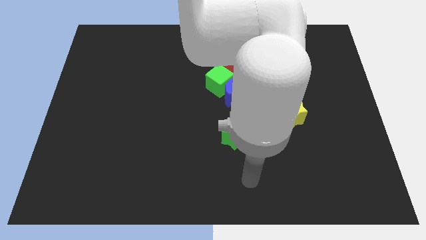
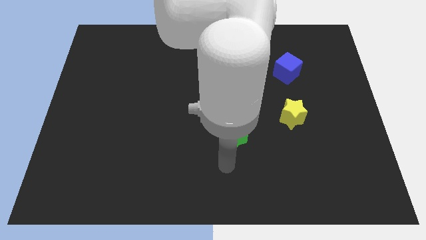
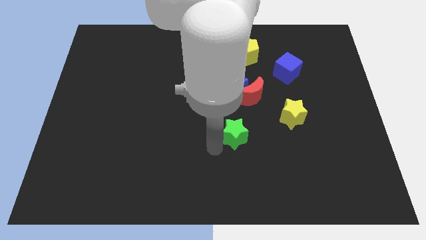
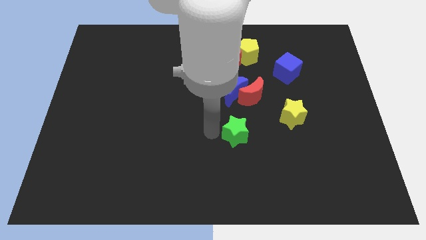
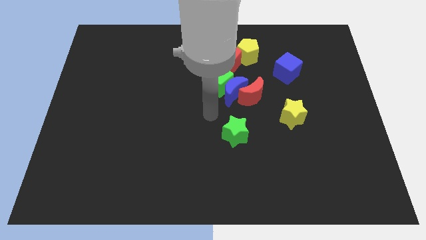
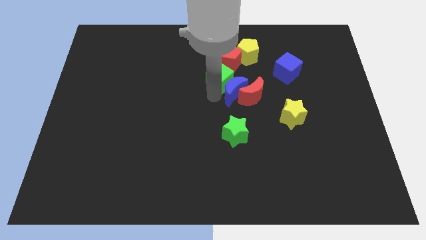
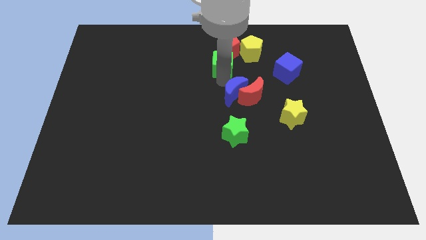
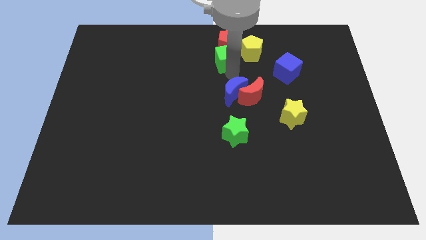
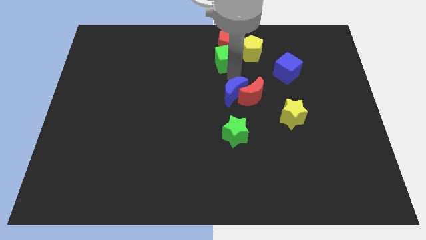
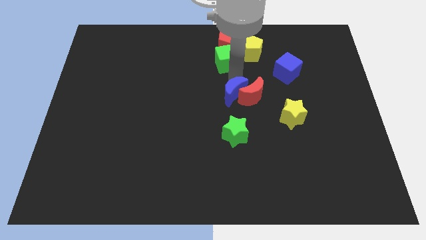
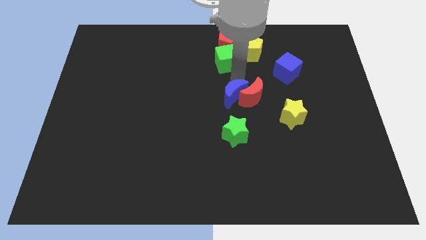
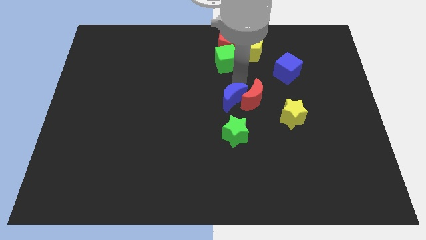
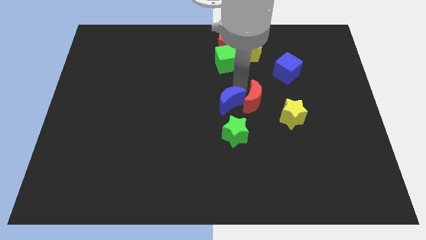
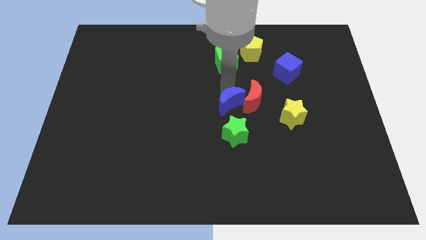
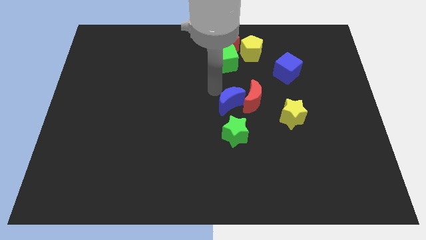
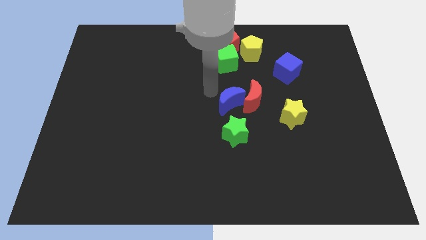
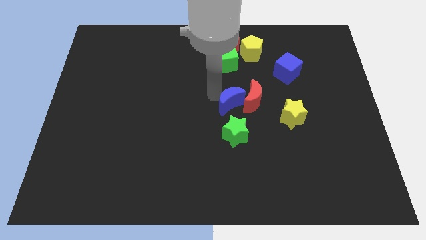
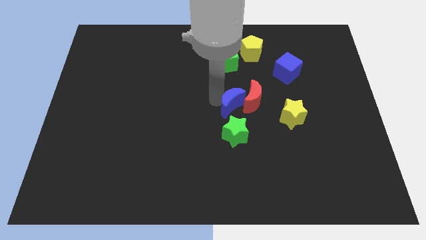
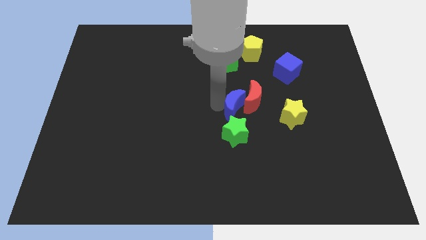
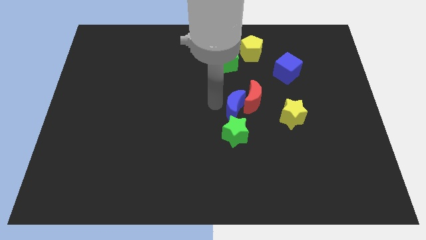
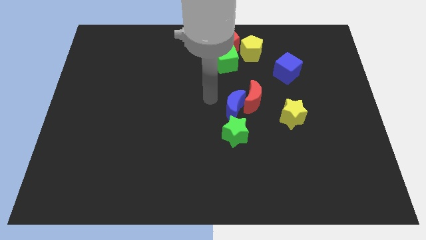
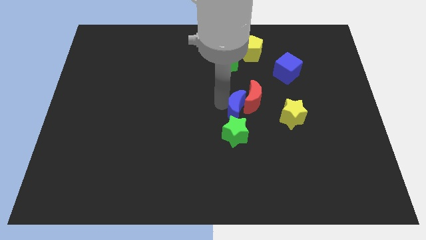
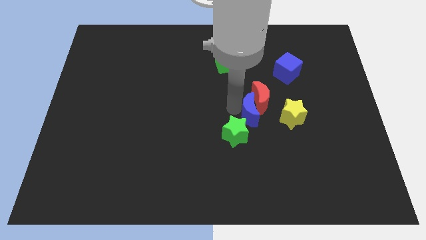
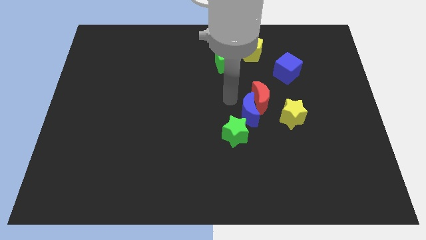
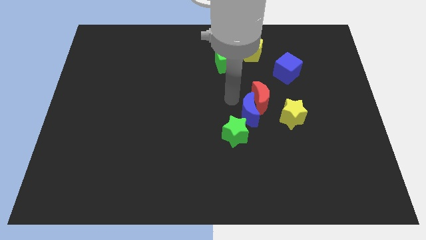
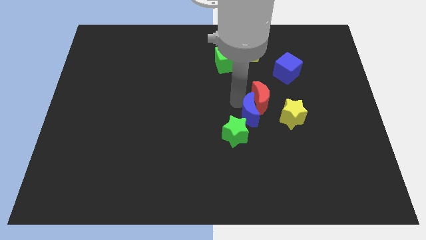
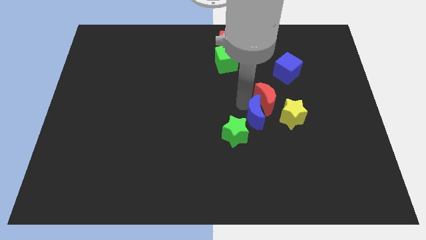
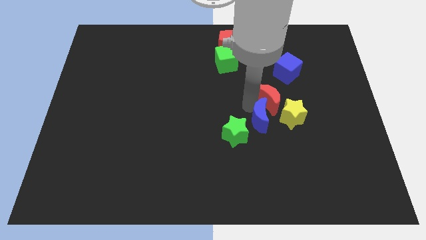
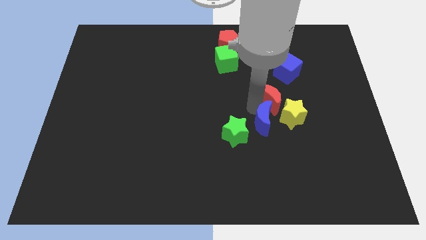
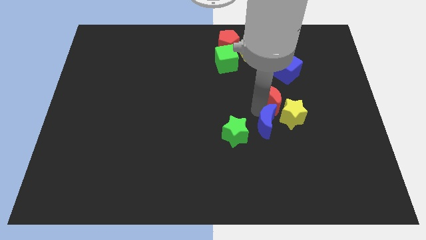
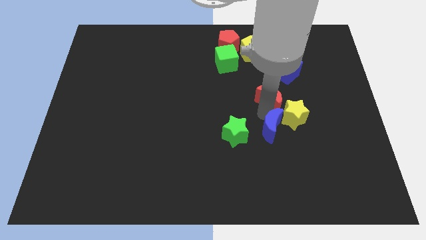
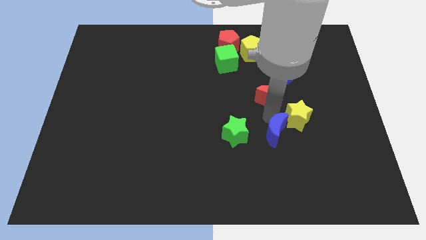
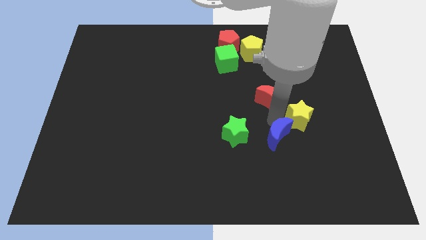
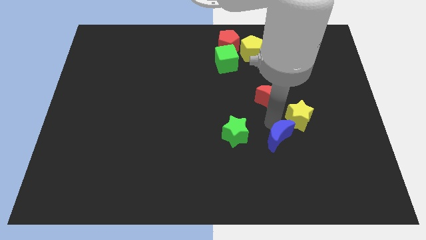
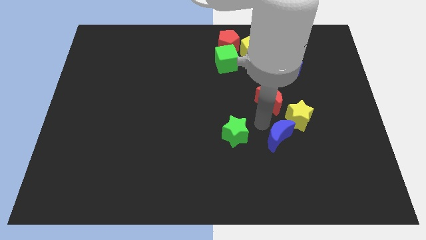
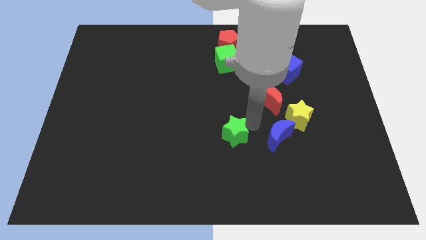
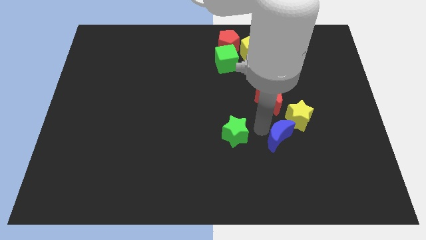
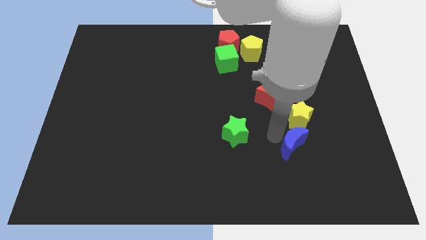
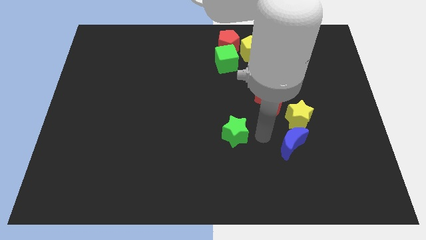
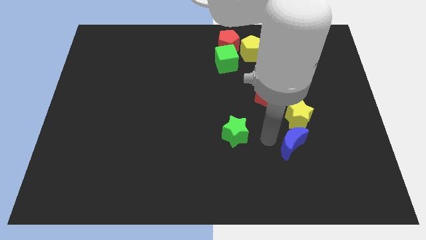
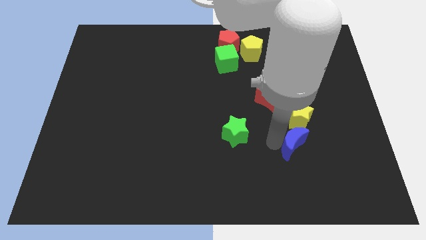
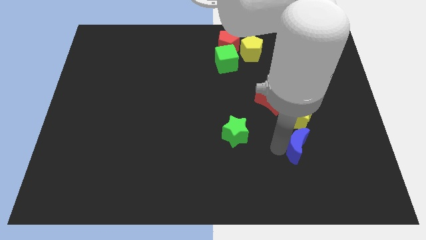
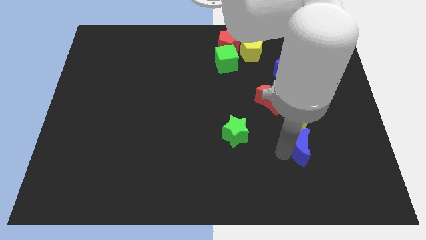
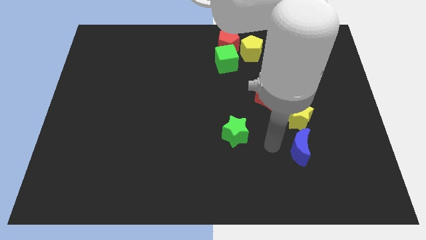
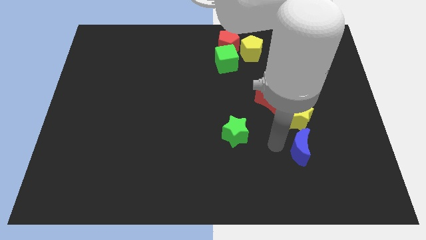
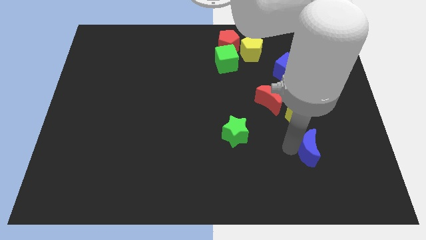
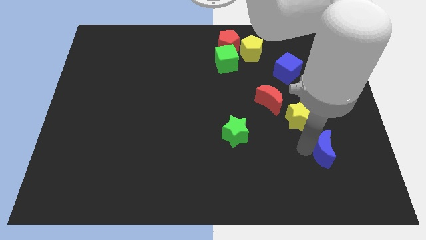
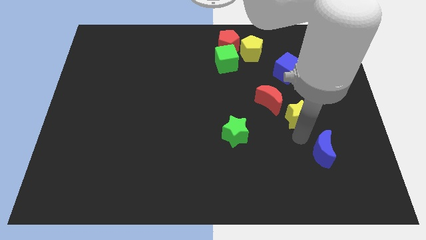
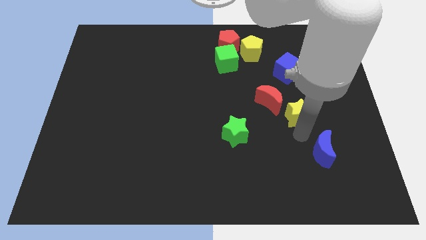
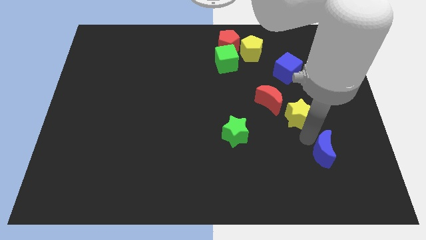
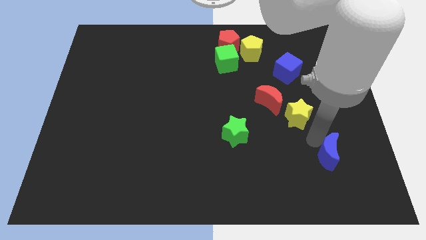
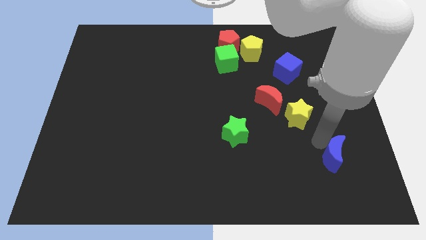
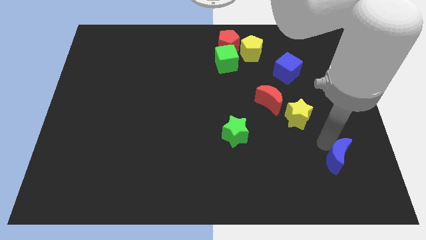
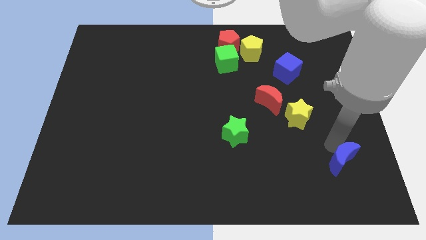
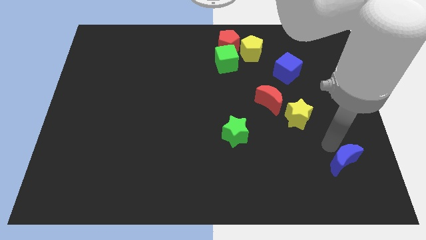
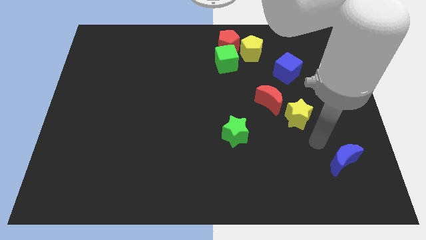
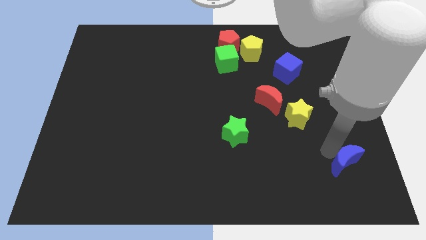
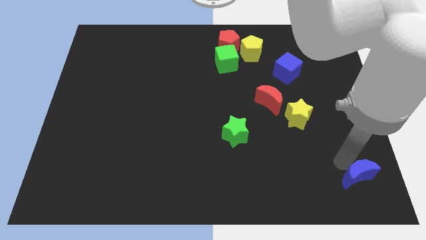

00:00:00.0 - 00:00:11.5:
push the blue moon to the lower right corner

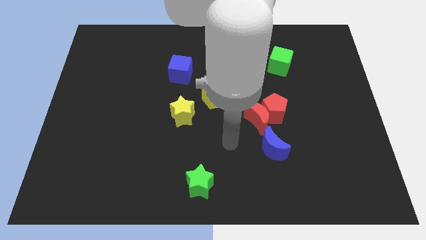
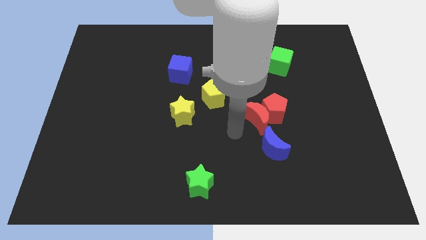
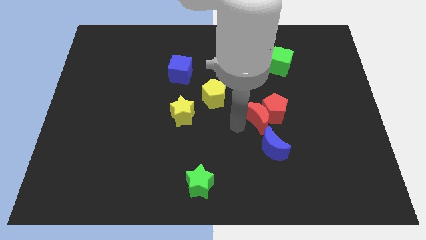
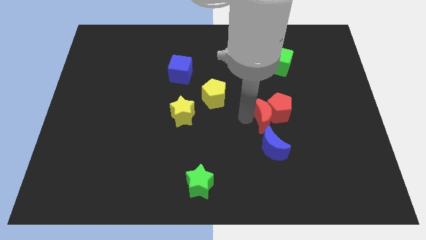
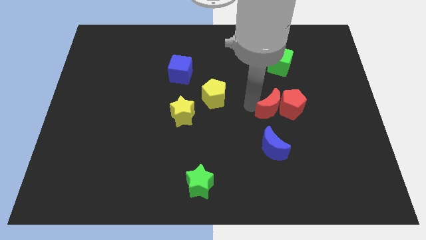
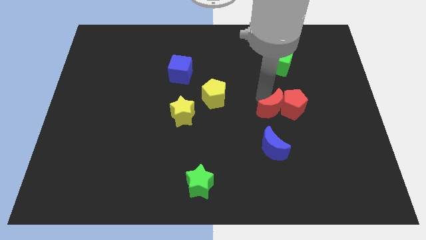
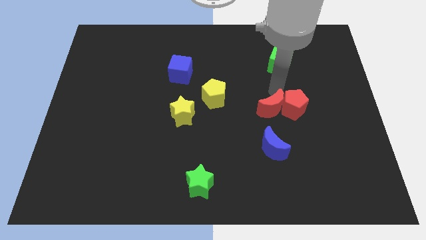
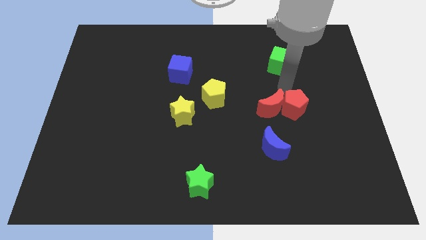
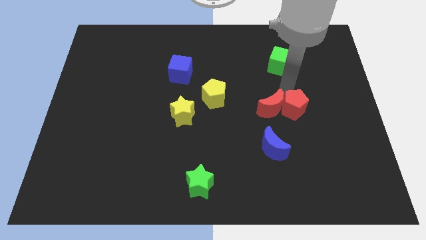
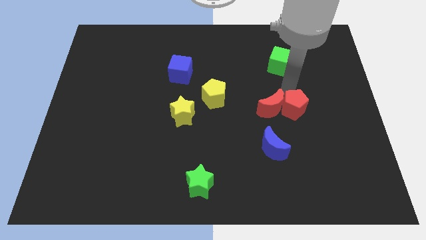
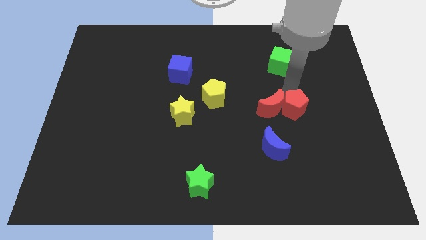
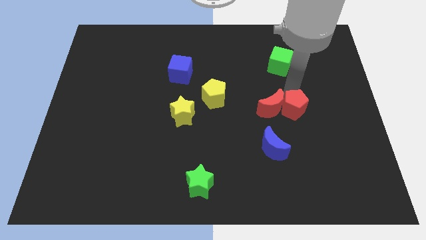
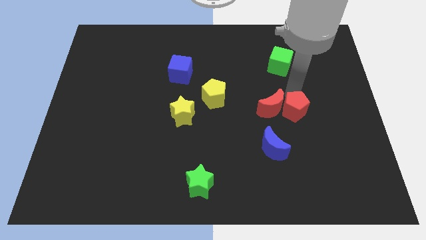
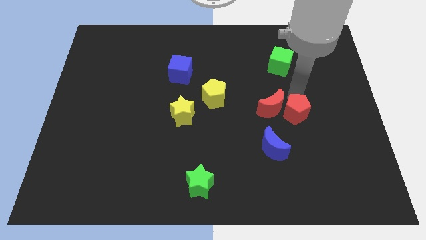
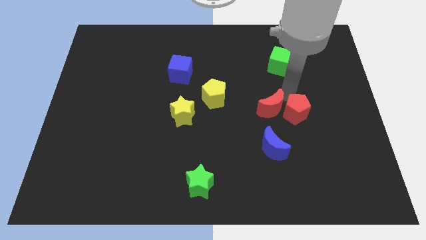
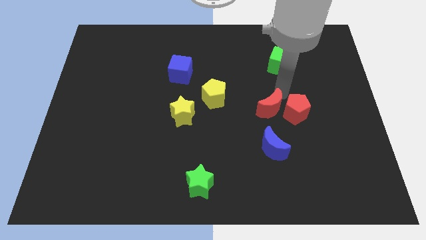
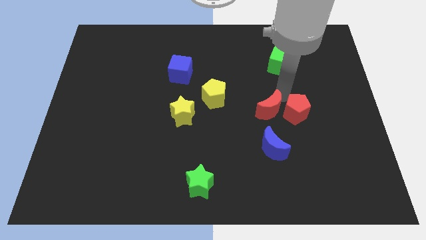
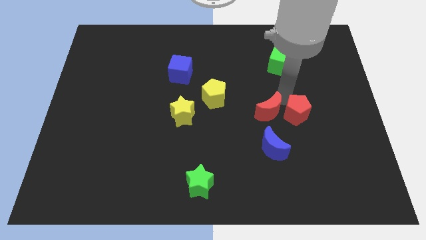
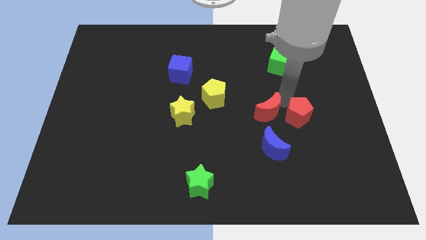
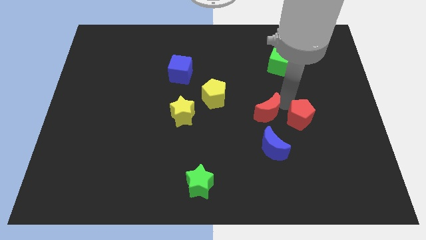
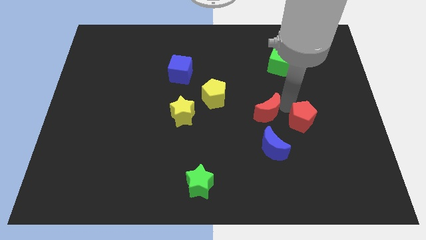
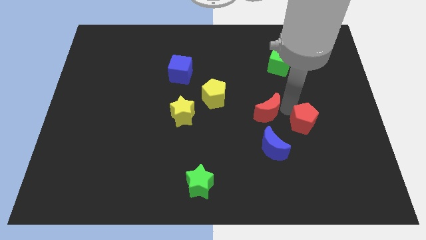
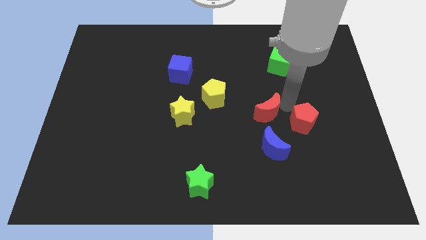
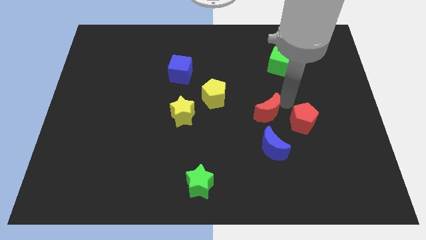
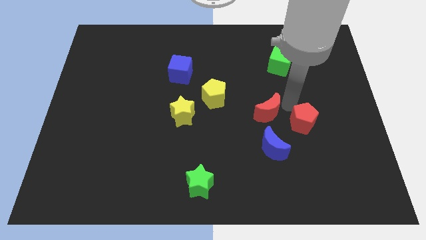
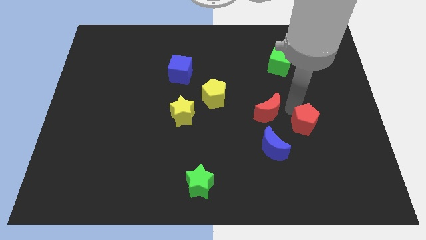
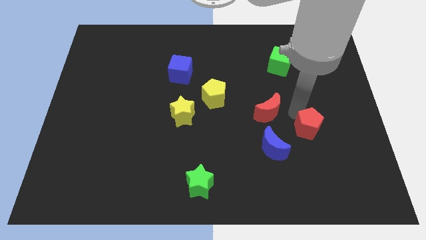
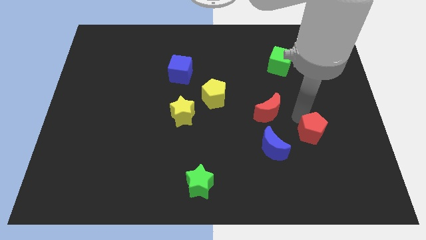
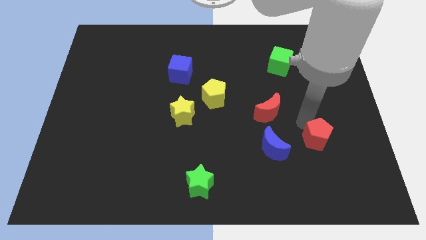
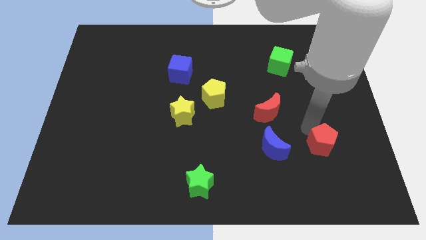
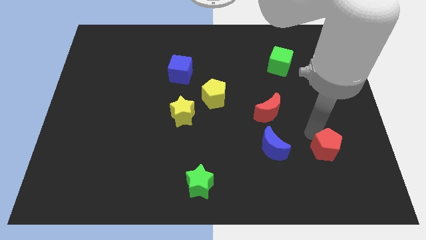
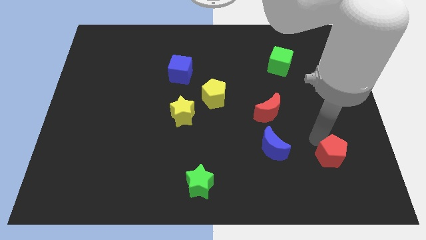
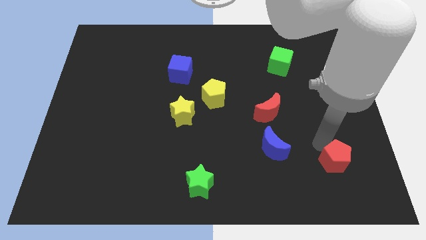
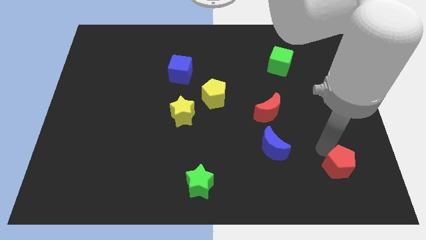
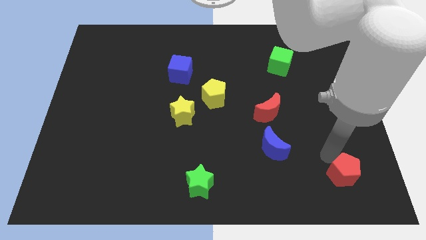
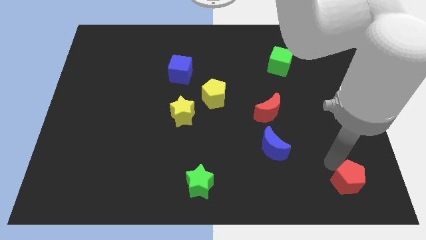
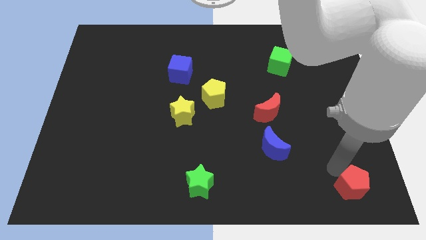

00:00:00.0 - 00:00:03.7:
slide the red pentagon to the lower right corner
